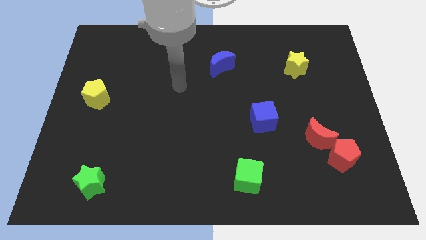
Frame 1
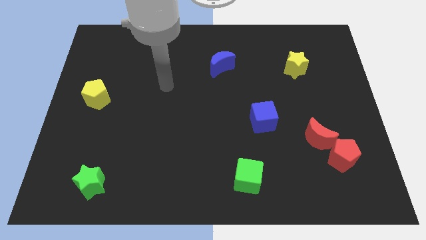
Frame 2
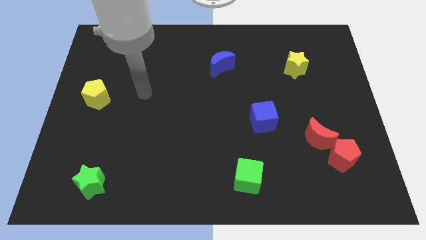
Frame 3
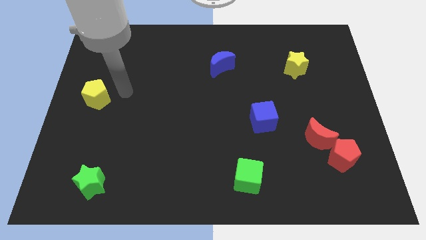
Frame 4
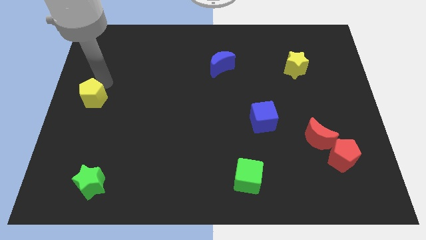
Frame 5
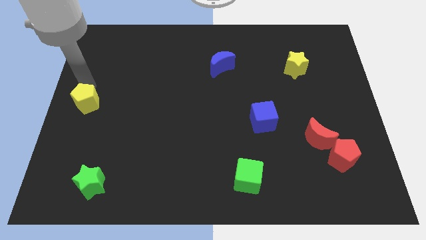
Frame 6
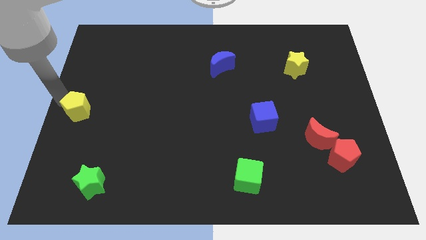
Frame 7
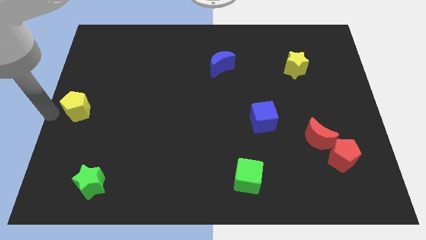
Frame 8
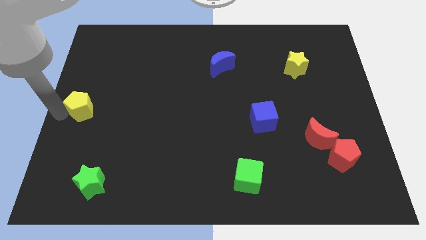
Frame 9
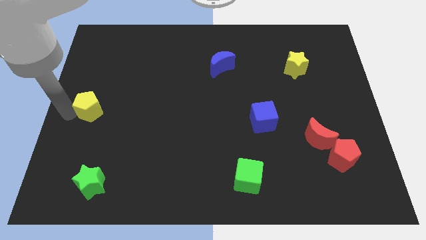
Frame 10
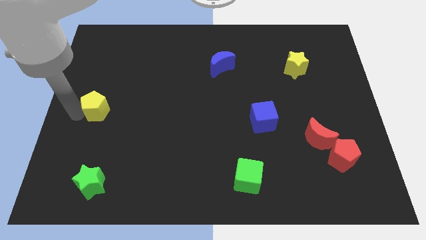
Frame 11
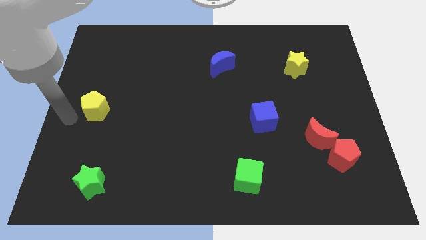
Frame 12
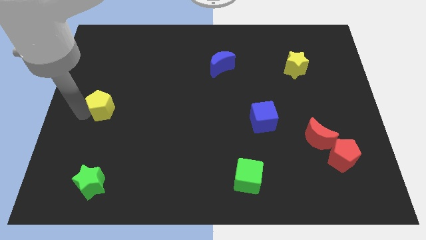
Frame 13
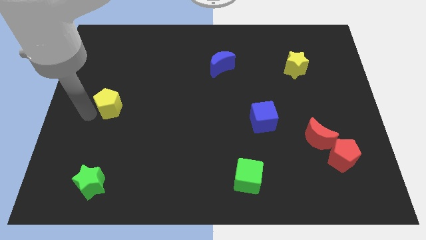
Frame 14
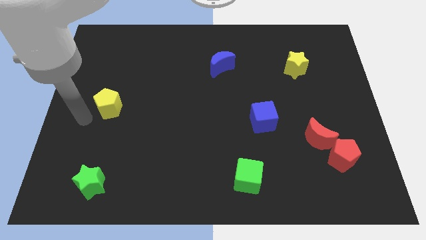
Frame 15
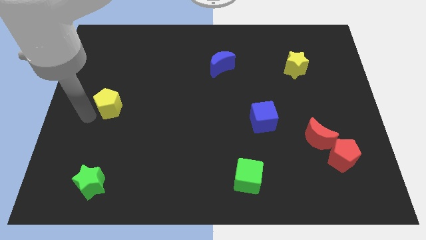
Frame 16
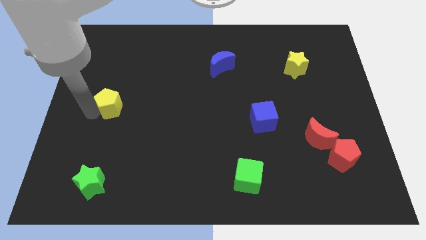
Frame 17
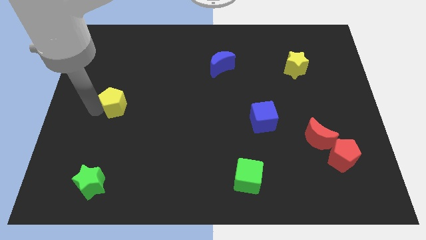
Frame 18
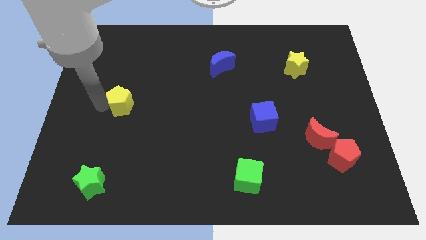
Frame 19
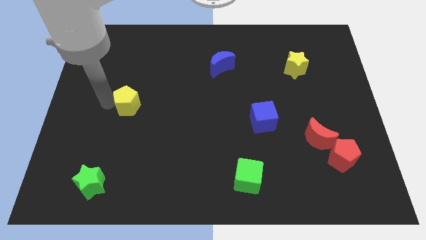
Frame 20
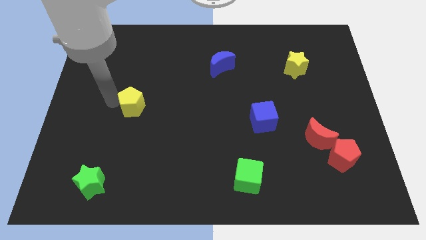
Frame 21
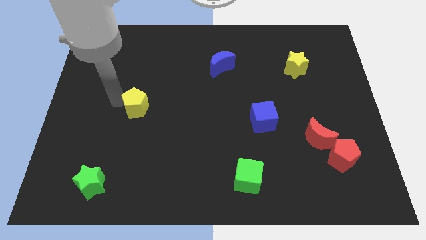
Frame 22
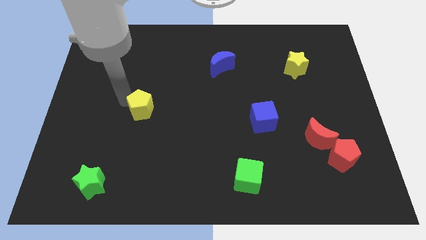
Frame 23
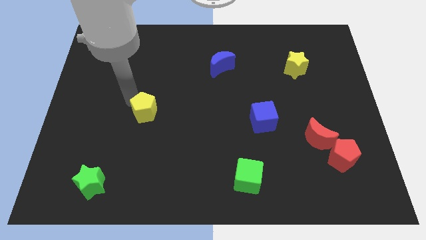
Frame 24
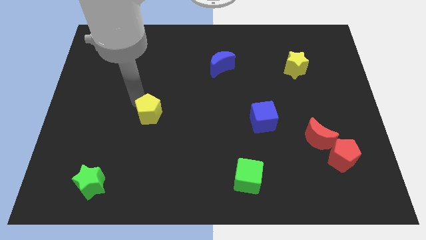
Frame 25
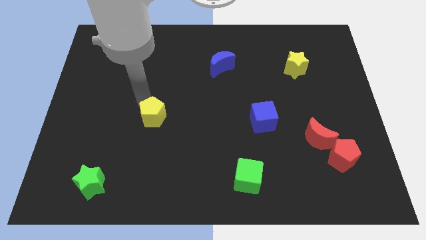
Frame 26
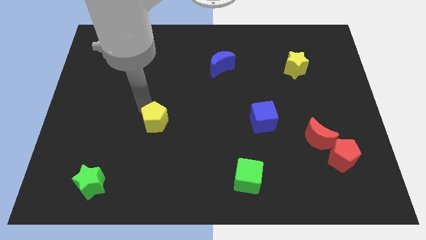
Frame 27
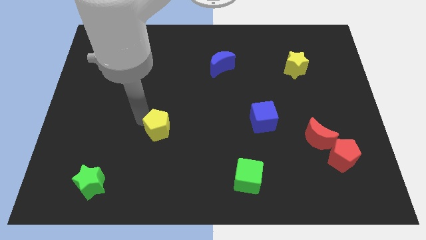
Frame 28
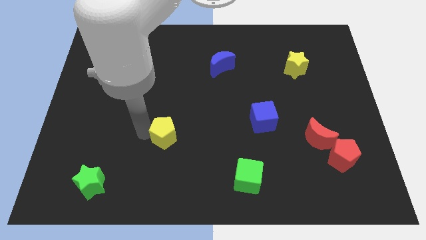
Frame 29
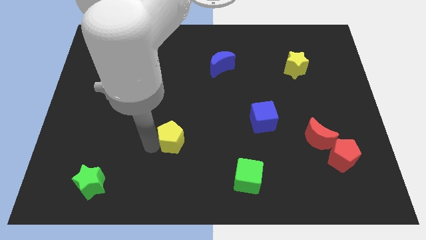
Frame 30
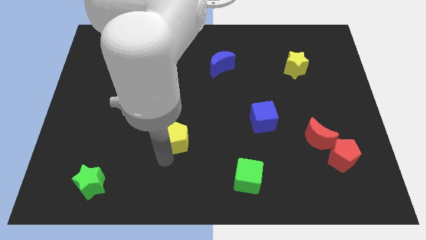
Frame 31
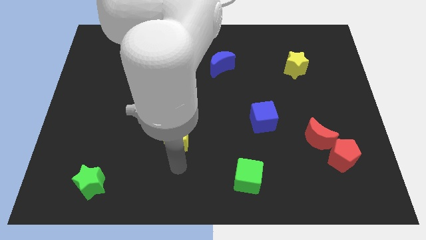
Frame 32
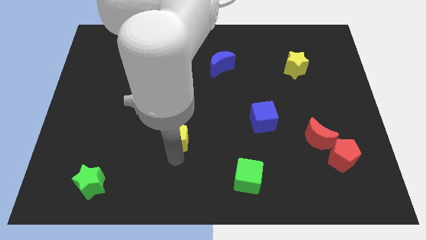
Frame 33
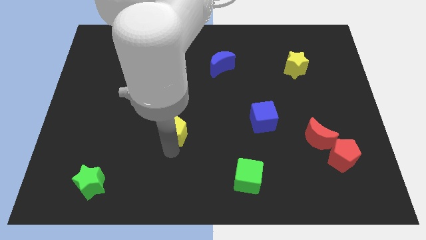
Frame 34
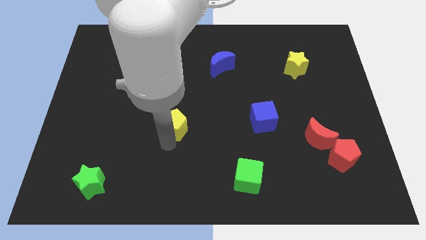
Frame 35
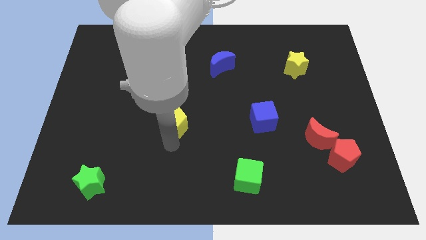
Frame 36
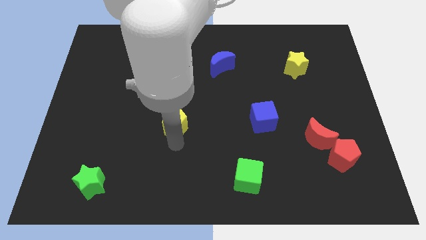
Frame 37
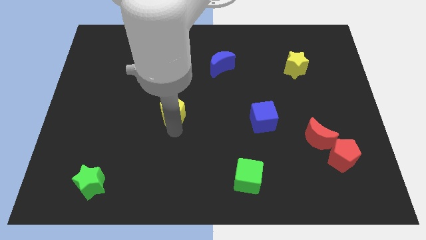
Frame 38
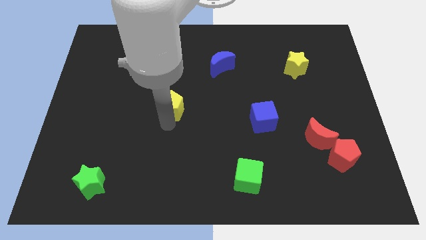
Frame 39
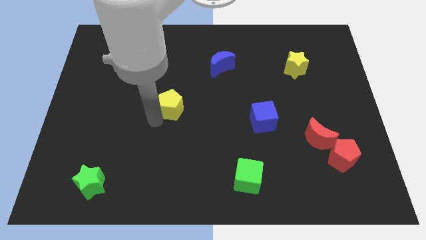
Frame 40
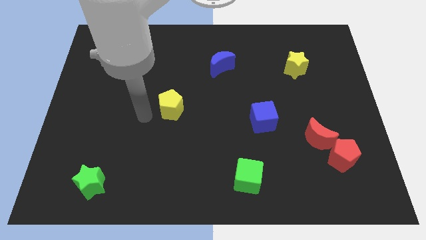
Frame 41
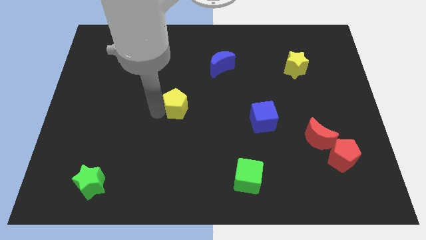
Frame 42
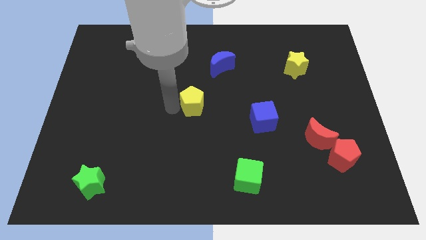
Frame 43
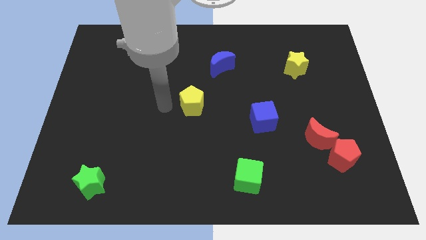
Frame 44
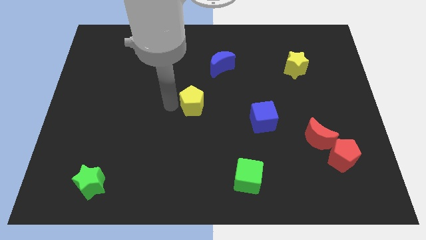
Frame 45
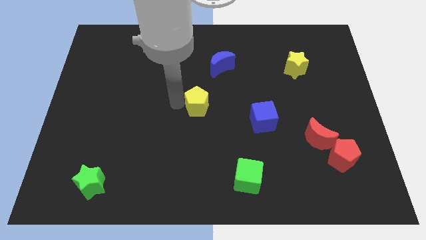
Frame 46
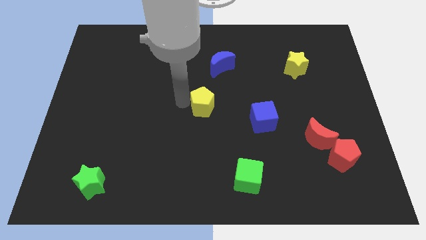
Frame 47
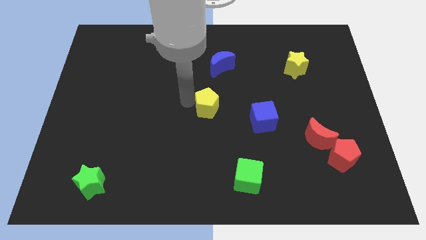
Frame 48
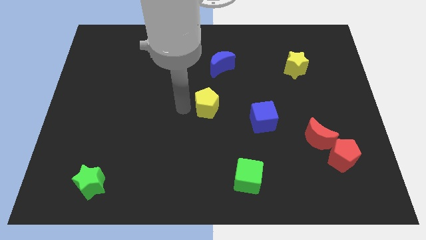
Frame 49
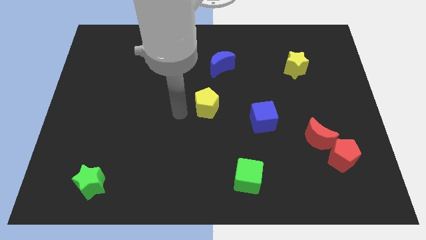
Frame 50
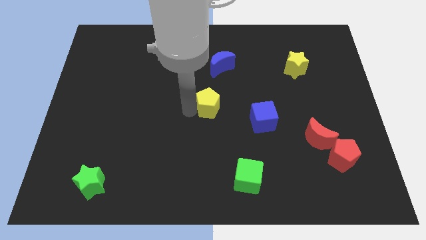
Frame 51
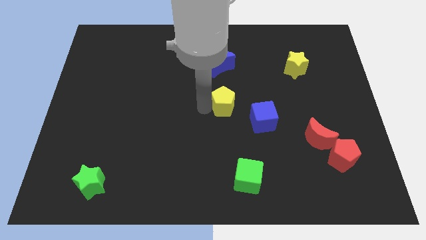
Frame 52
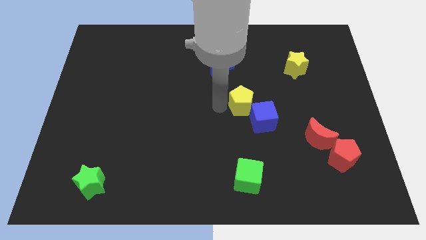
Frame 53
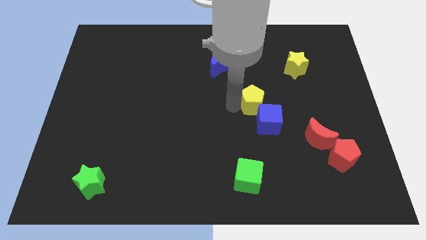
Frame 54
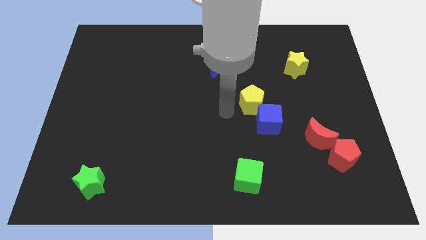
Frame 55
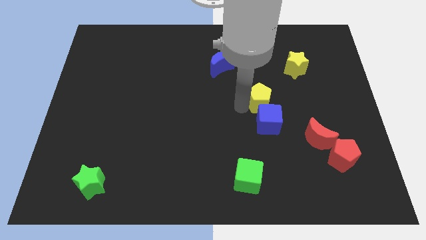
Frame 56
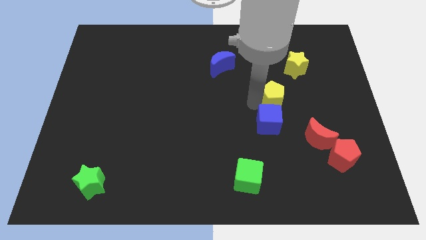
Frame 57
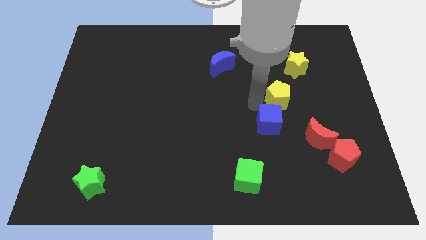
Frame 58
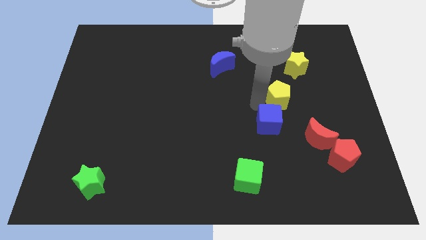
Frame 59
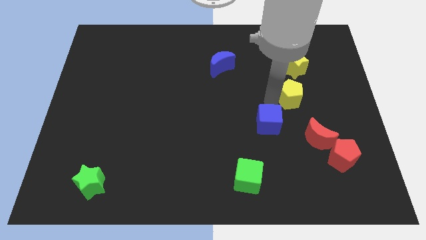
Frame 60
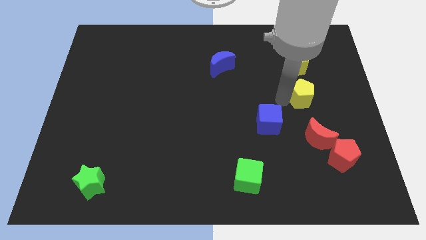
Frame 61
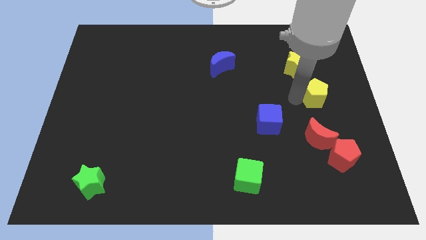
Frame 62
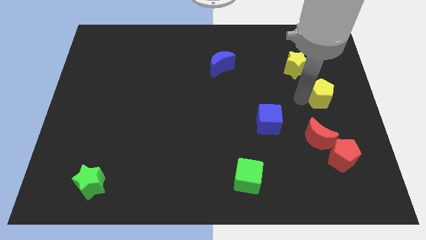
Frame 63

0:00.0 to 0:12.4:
put the yellow pentagon to the right side of the board
